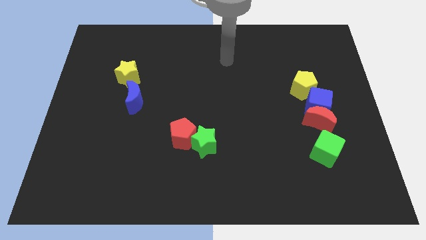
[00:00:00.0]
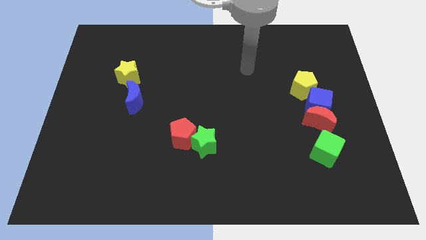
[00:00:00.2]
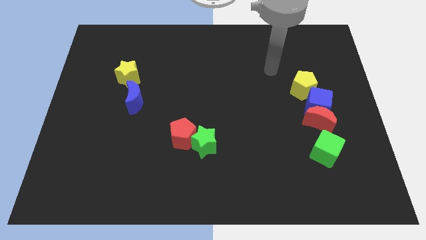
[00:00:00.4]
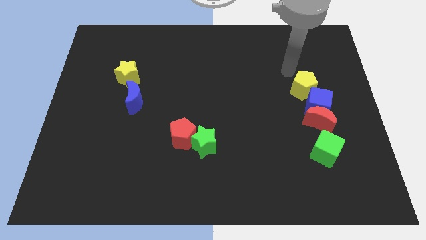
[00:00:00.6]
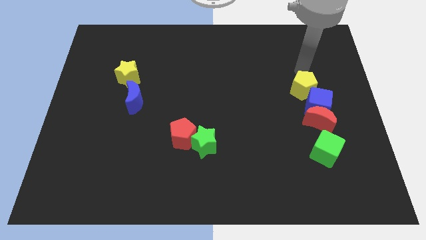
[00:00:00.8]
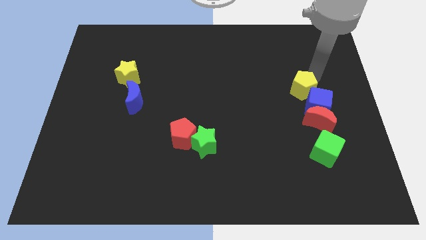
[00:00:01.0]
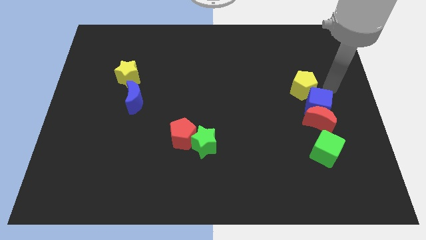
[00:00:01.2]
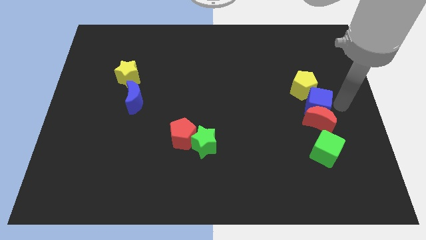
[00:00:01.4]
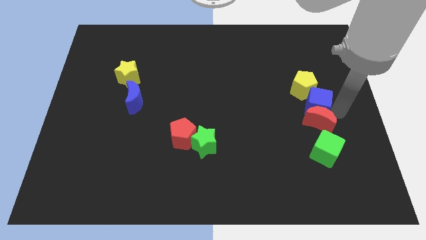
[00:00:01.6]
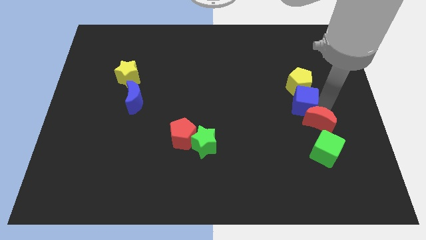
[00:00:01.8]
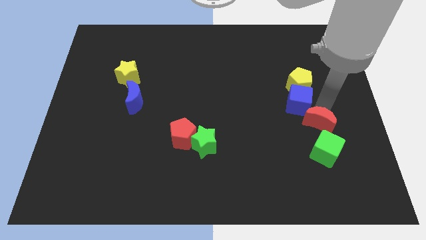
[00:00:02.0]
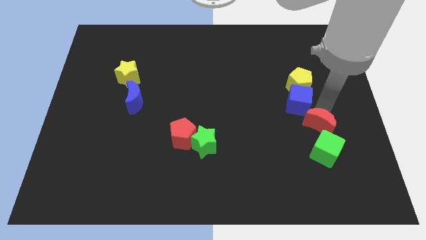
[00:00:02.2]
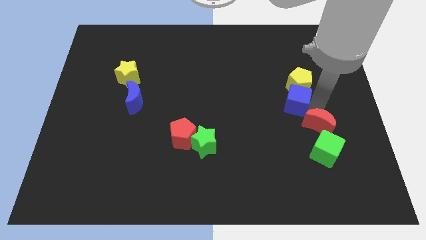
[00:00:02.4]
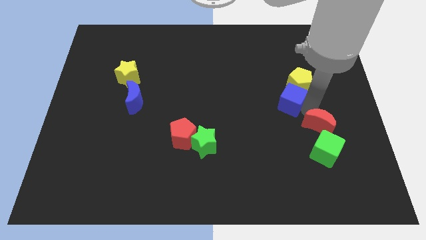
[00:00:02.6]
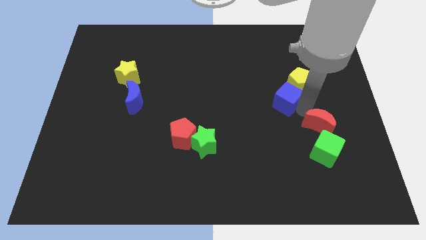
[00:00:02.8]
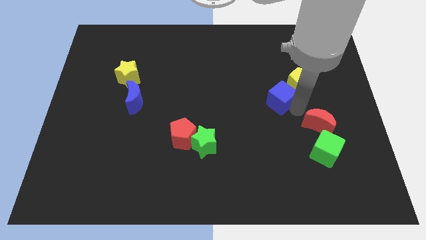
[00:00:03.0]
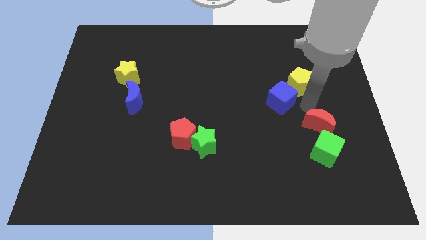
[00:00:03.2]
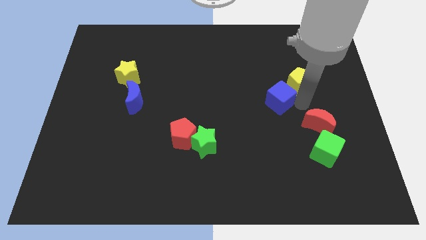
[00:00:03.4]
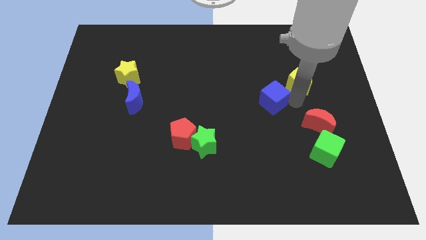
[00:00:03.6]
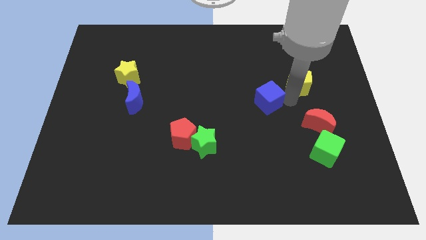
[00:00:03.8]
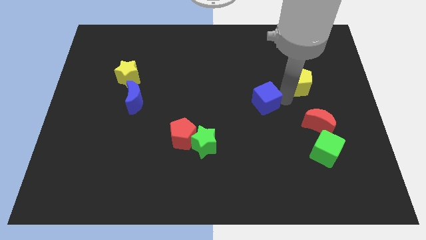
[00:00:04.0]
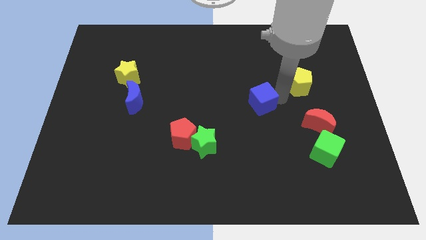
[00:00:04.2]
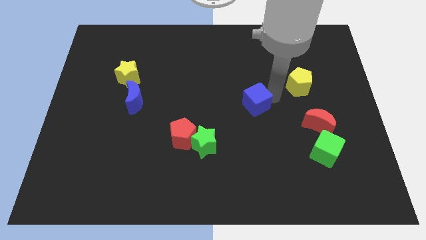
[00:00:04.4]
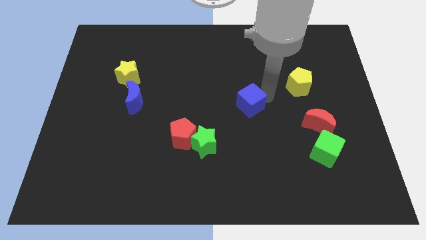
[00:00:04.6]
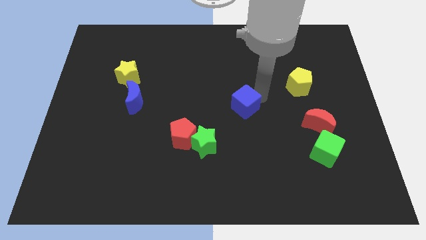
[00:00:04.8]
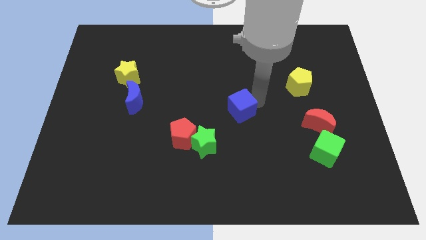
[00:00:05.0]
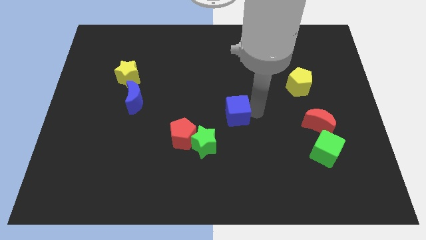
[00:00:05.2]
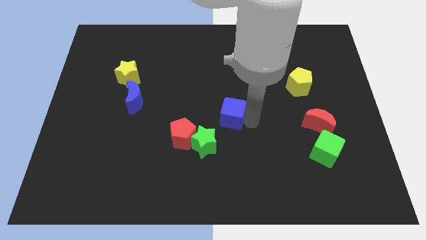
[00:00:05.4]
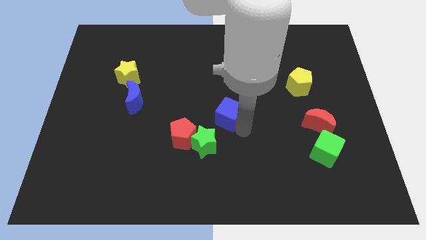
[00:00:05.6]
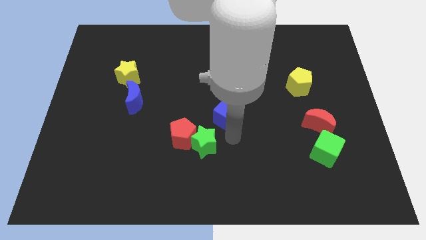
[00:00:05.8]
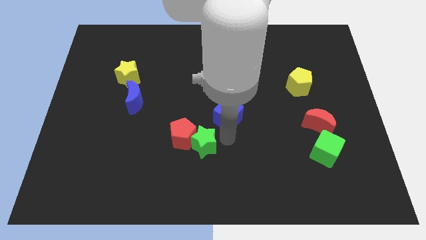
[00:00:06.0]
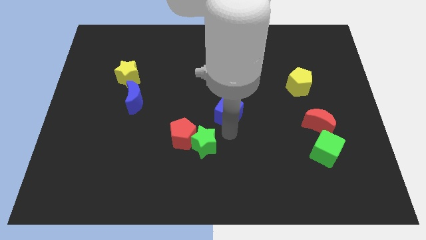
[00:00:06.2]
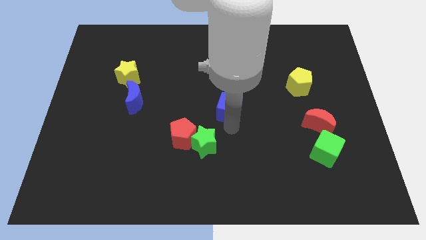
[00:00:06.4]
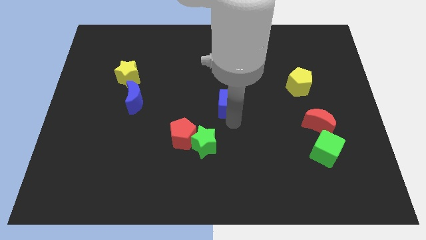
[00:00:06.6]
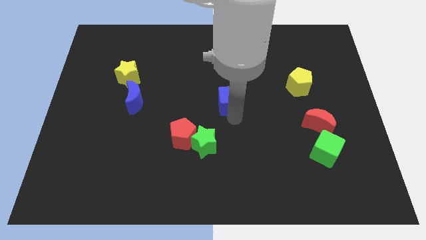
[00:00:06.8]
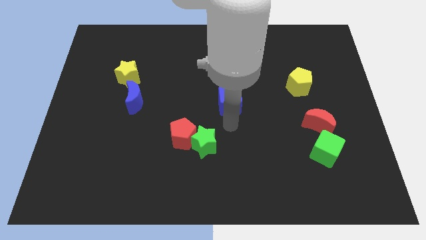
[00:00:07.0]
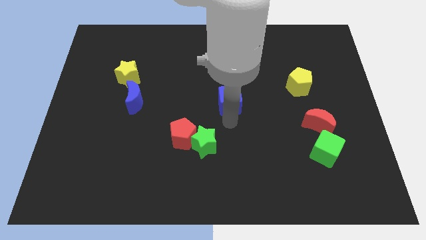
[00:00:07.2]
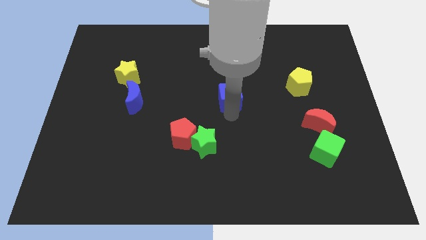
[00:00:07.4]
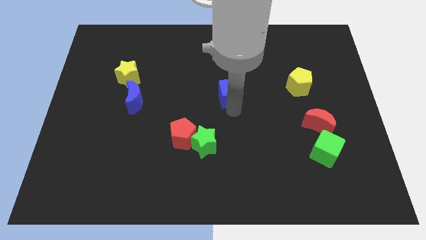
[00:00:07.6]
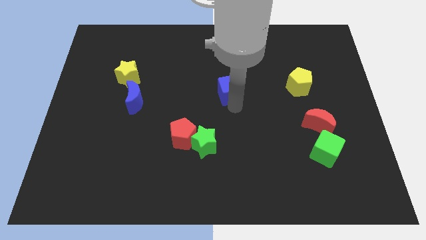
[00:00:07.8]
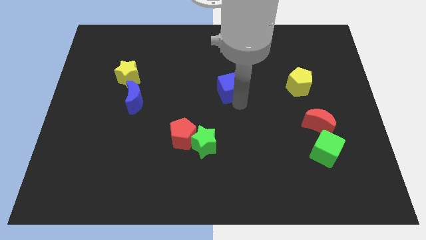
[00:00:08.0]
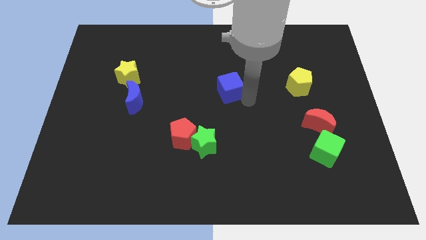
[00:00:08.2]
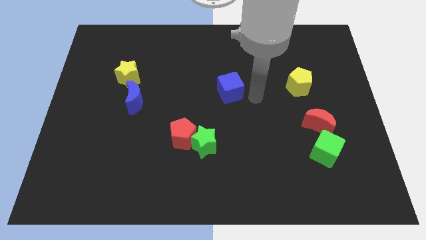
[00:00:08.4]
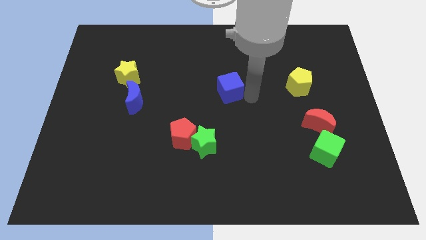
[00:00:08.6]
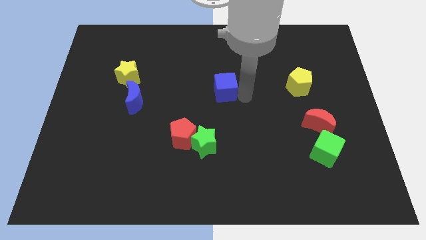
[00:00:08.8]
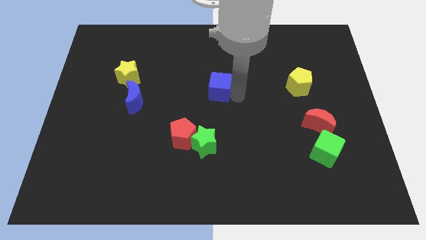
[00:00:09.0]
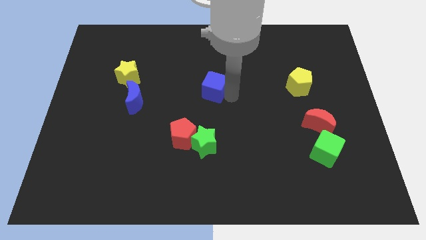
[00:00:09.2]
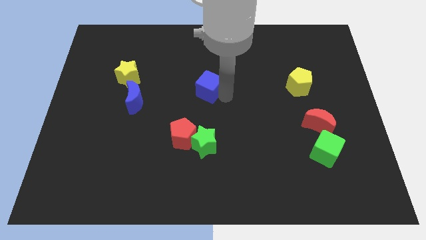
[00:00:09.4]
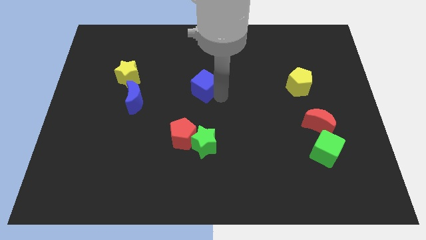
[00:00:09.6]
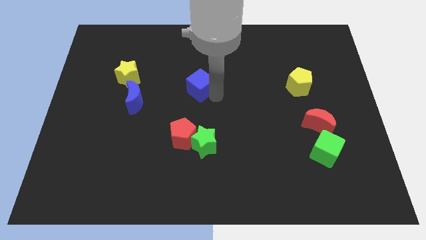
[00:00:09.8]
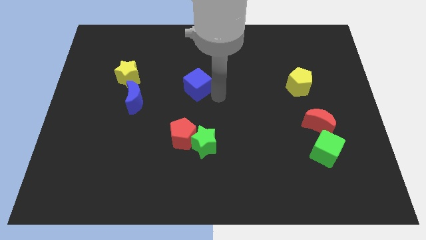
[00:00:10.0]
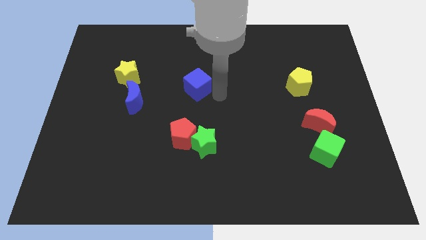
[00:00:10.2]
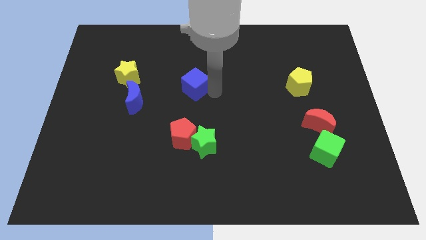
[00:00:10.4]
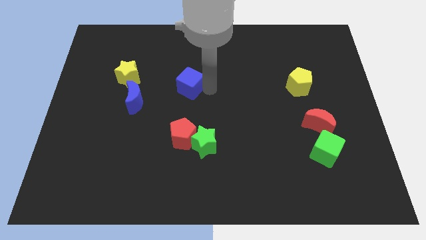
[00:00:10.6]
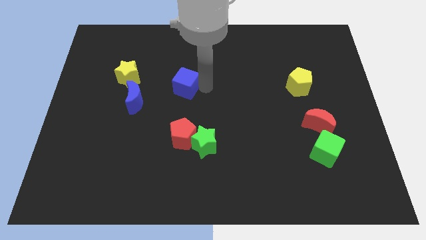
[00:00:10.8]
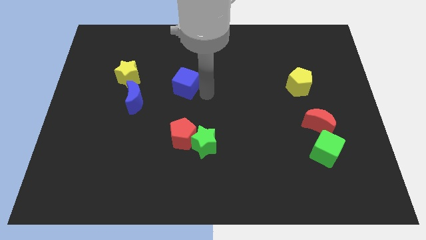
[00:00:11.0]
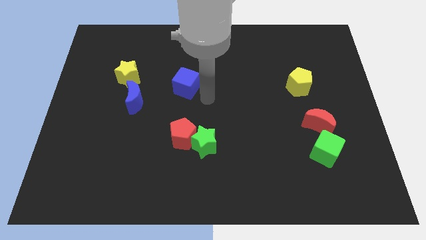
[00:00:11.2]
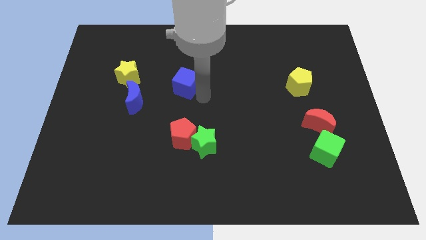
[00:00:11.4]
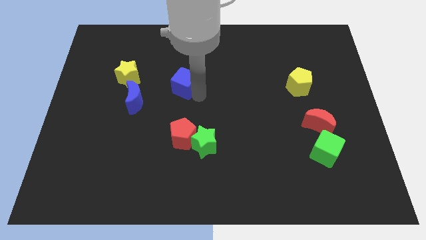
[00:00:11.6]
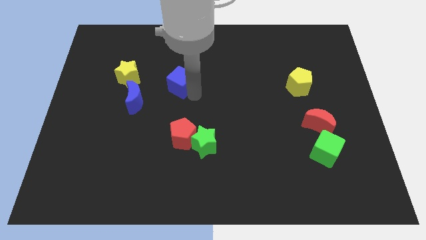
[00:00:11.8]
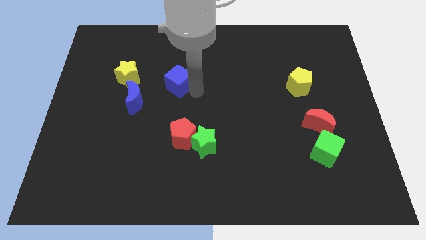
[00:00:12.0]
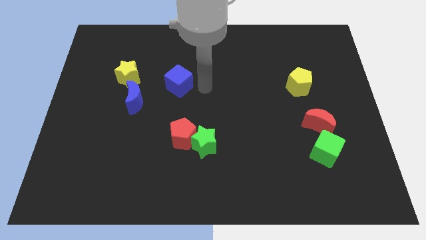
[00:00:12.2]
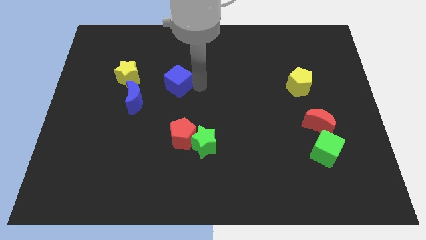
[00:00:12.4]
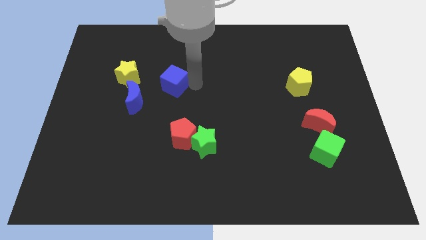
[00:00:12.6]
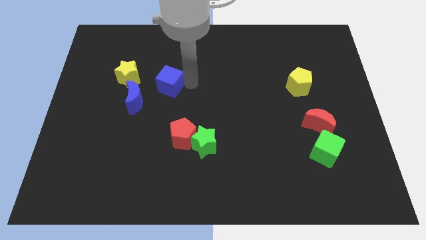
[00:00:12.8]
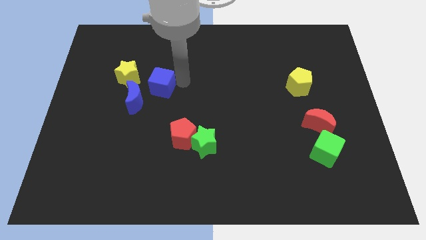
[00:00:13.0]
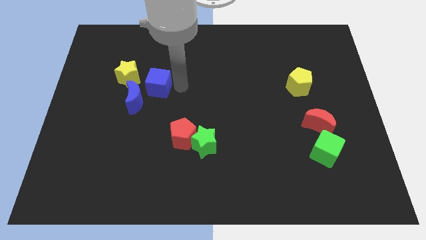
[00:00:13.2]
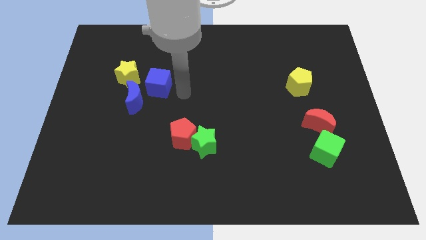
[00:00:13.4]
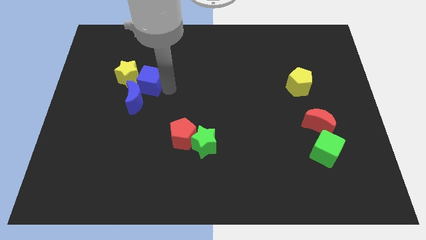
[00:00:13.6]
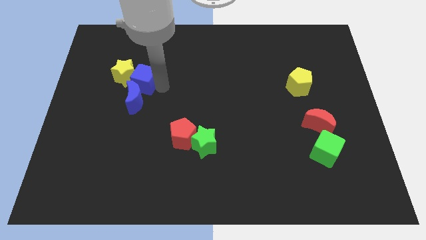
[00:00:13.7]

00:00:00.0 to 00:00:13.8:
put the blue cube next to the yellow star

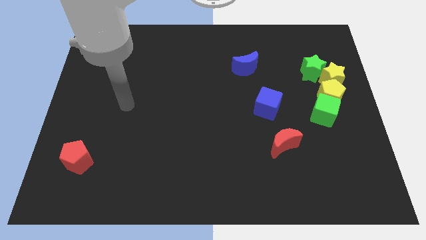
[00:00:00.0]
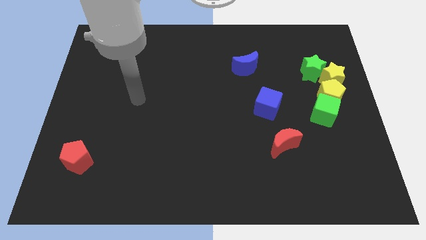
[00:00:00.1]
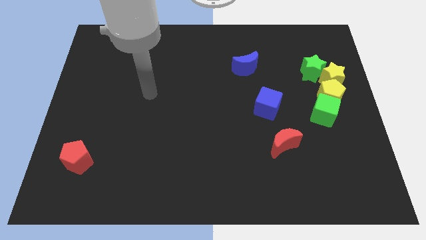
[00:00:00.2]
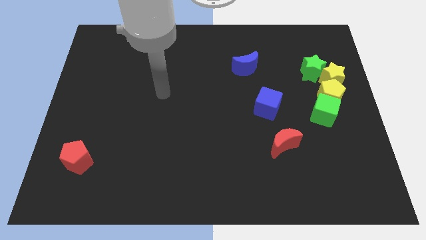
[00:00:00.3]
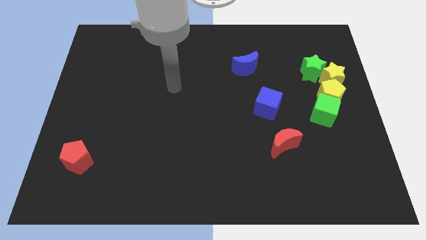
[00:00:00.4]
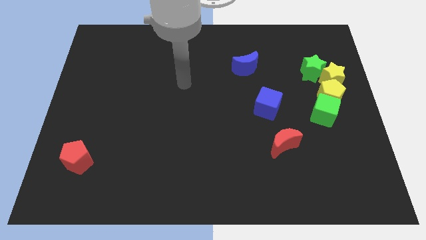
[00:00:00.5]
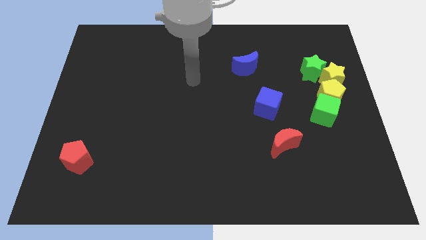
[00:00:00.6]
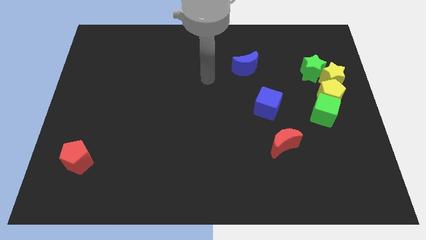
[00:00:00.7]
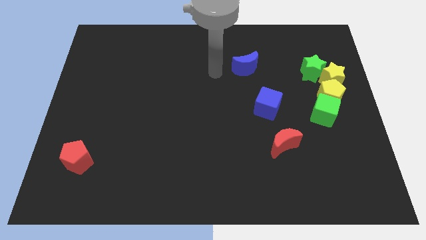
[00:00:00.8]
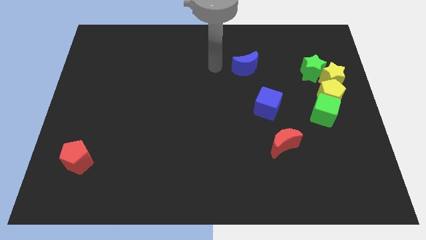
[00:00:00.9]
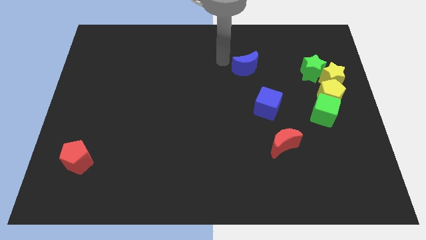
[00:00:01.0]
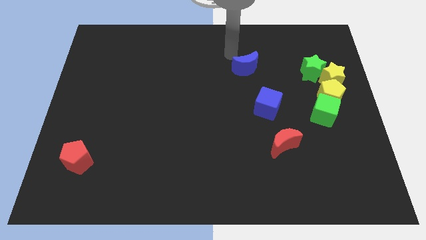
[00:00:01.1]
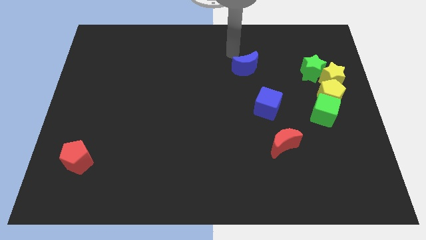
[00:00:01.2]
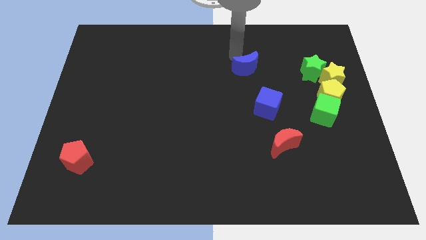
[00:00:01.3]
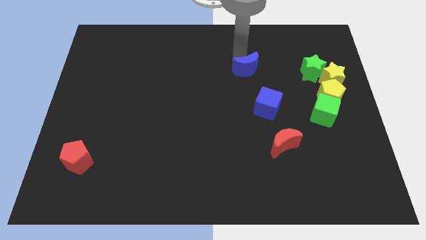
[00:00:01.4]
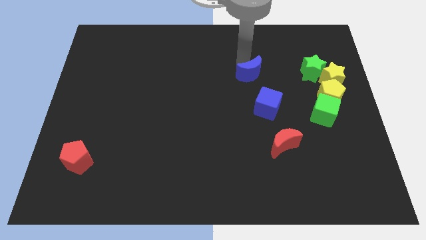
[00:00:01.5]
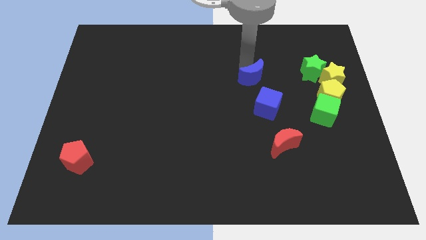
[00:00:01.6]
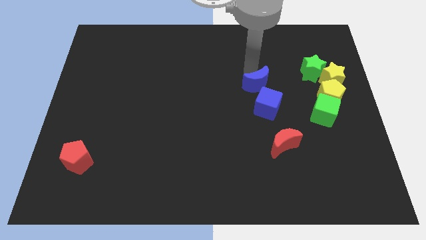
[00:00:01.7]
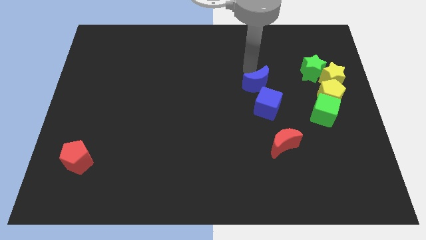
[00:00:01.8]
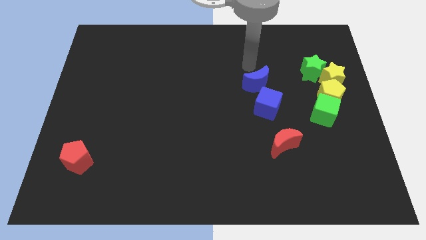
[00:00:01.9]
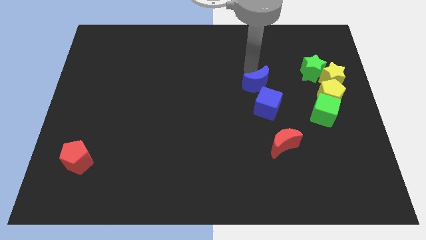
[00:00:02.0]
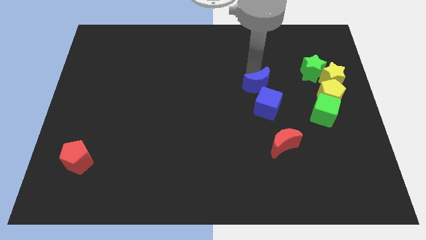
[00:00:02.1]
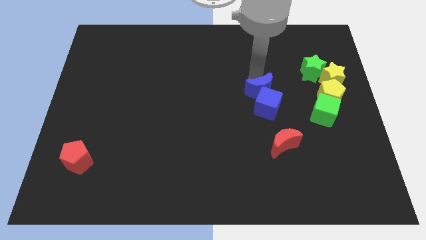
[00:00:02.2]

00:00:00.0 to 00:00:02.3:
slide the blue moon next to the blue cube
